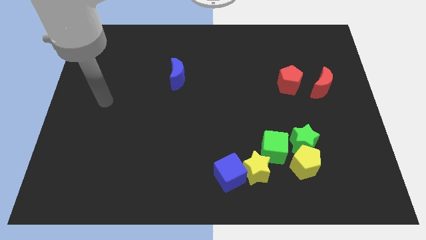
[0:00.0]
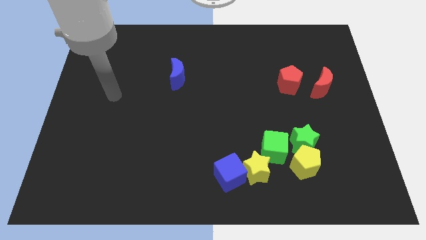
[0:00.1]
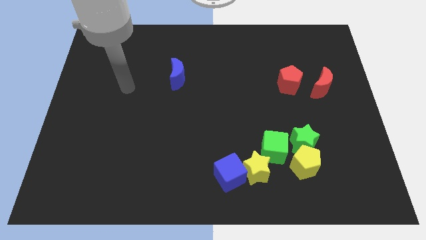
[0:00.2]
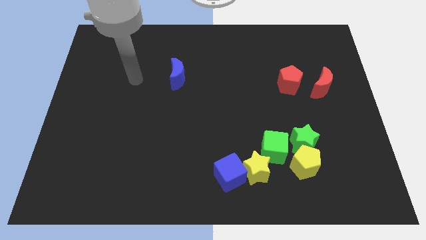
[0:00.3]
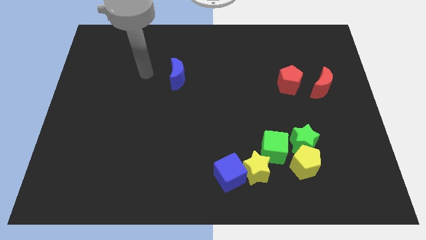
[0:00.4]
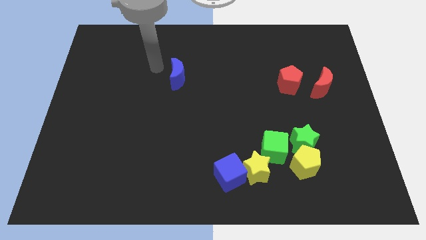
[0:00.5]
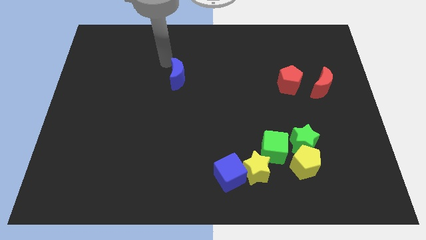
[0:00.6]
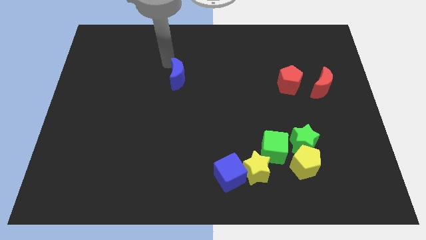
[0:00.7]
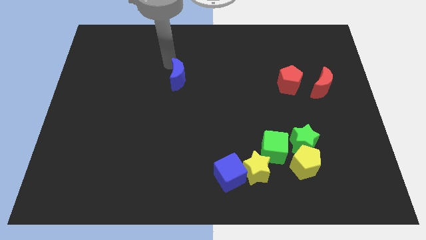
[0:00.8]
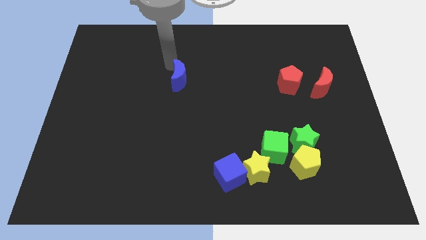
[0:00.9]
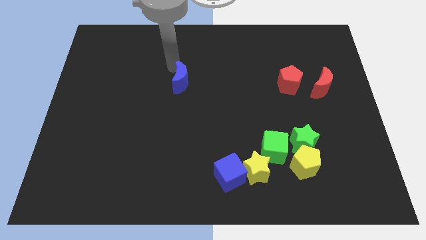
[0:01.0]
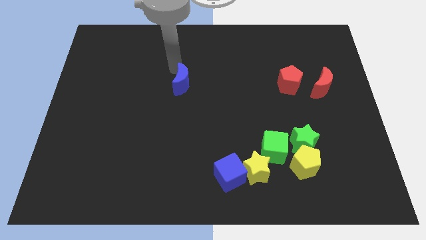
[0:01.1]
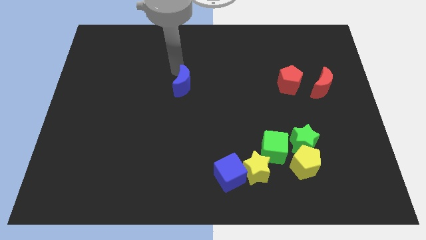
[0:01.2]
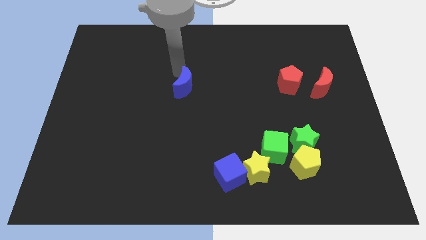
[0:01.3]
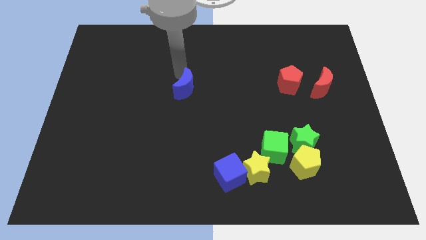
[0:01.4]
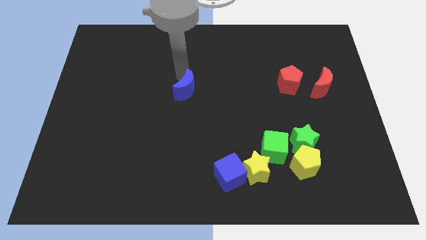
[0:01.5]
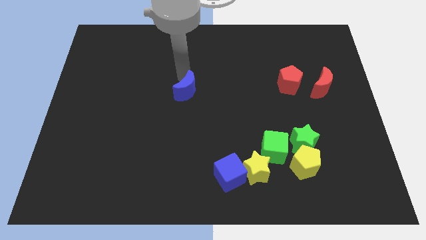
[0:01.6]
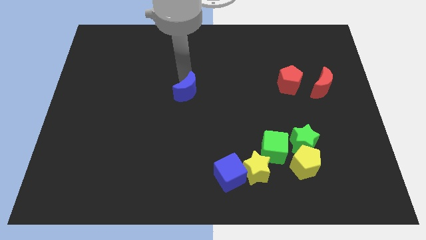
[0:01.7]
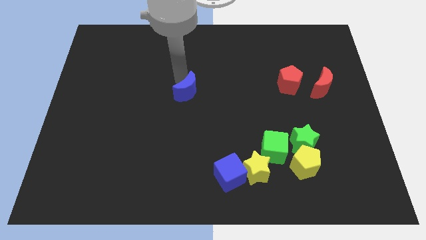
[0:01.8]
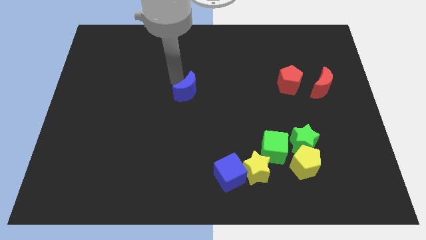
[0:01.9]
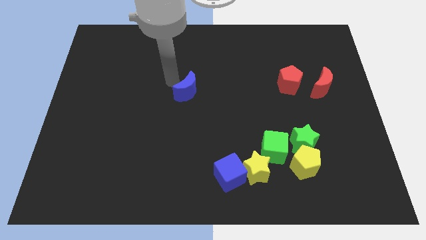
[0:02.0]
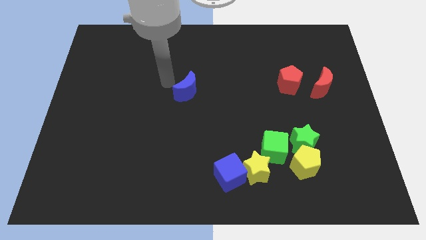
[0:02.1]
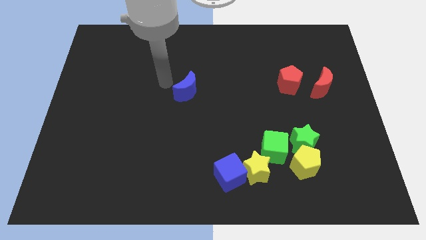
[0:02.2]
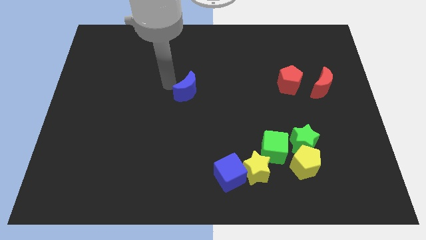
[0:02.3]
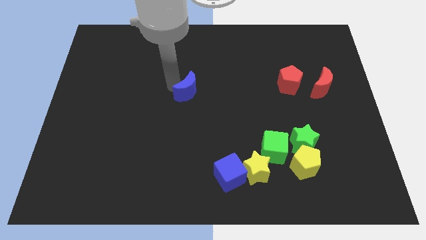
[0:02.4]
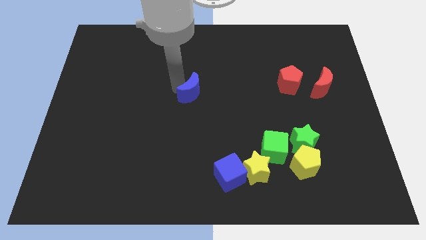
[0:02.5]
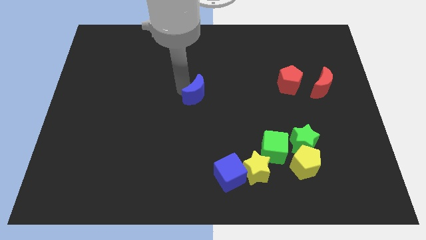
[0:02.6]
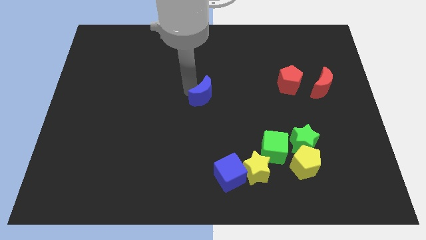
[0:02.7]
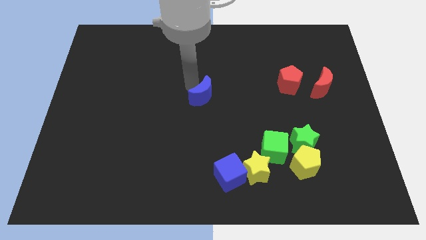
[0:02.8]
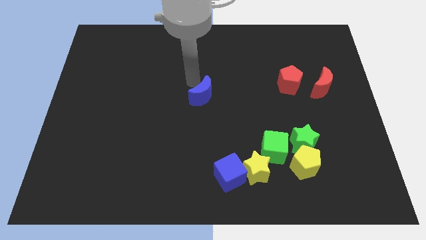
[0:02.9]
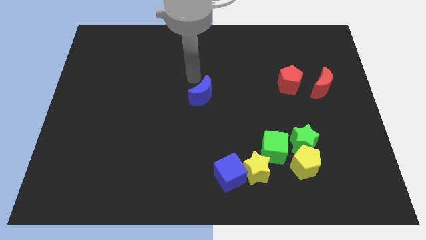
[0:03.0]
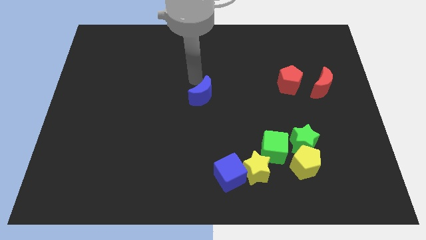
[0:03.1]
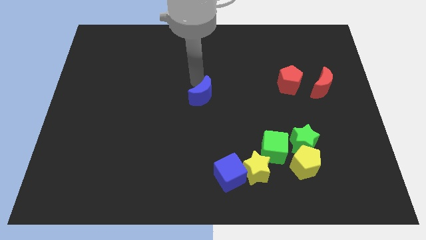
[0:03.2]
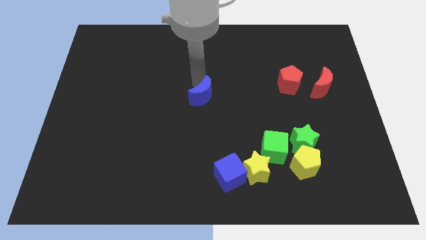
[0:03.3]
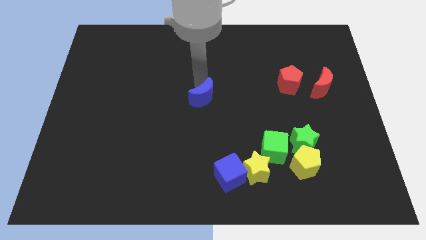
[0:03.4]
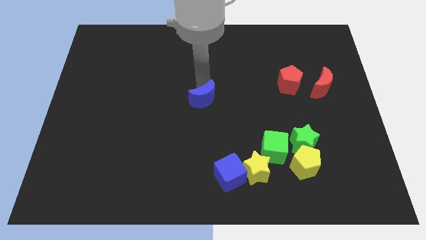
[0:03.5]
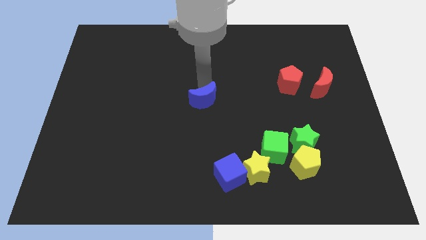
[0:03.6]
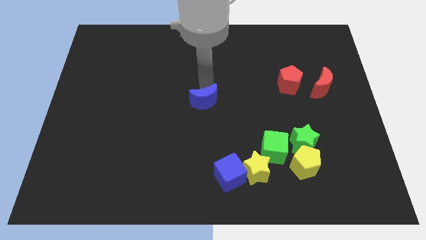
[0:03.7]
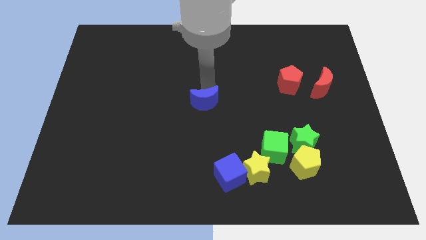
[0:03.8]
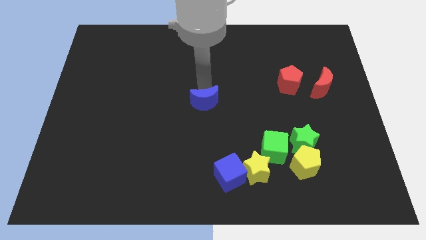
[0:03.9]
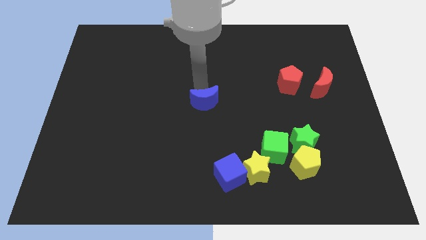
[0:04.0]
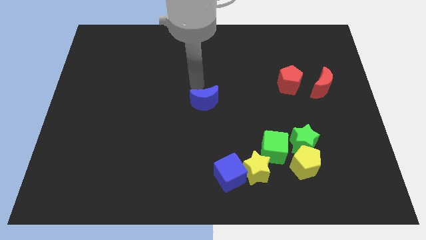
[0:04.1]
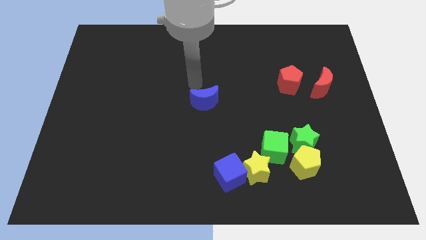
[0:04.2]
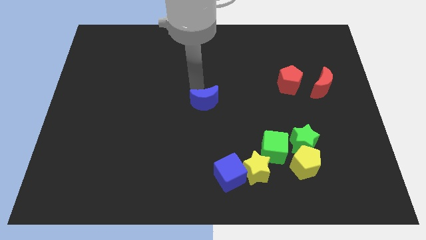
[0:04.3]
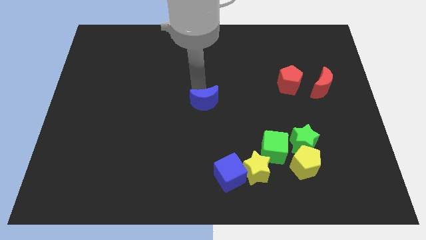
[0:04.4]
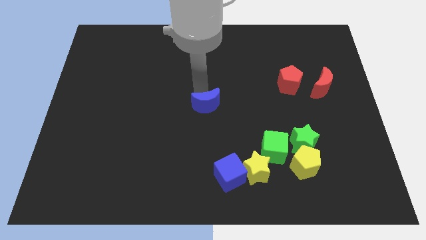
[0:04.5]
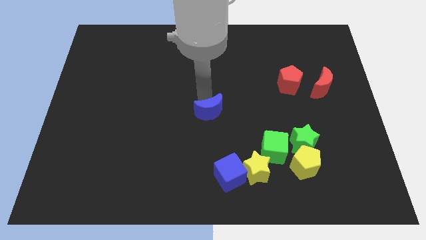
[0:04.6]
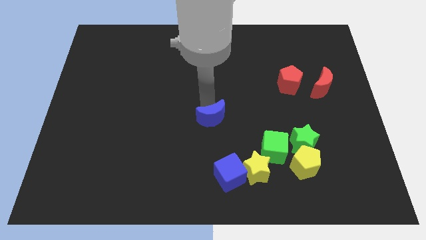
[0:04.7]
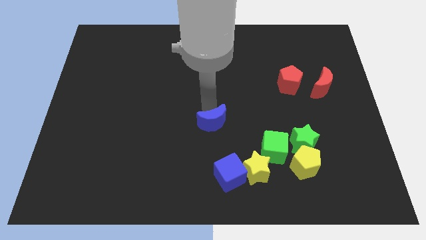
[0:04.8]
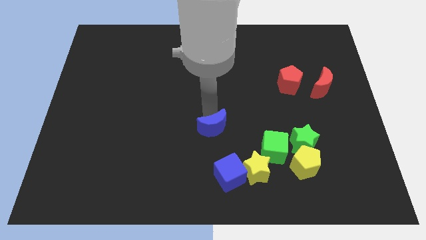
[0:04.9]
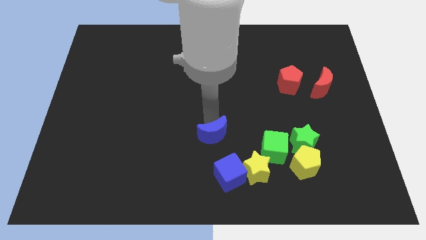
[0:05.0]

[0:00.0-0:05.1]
push the blue moon to the left of the green cube

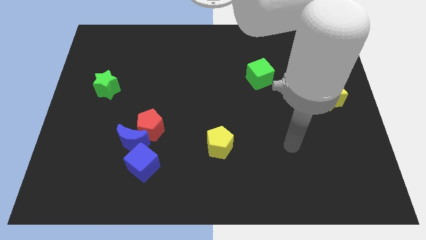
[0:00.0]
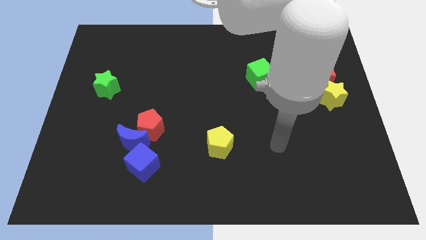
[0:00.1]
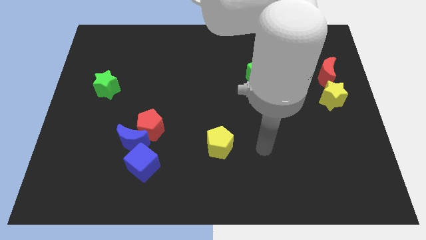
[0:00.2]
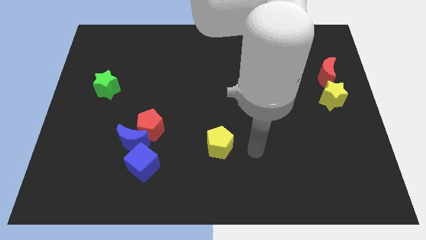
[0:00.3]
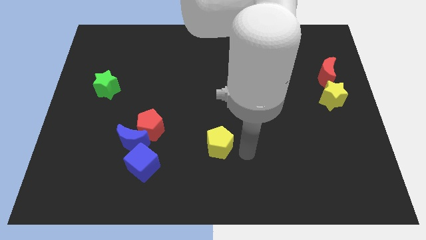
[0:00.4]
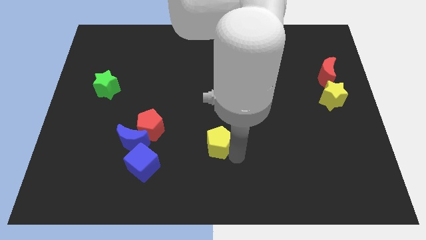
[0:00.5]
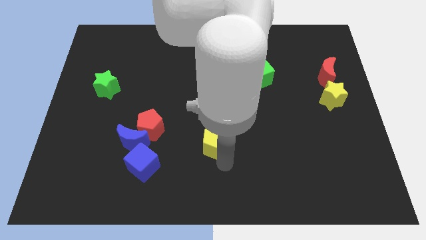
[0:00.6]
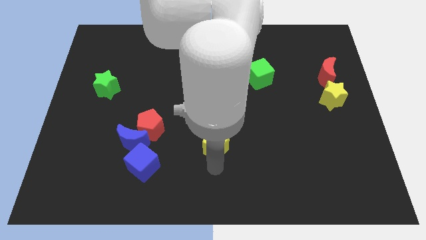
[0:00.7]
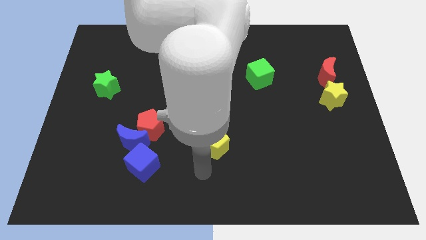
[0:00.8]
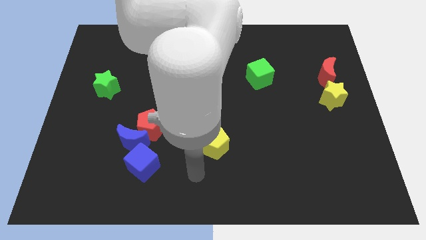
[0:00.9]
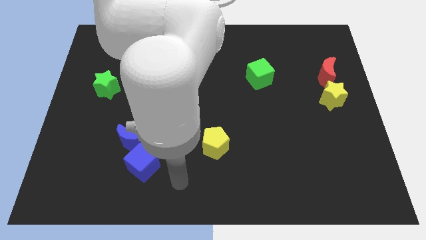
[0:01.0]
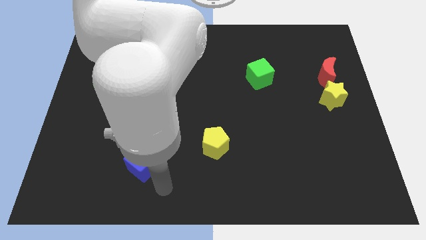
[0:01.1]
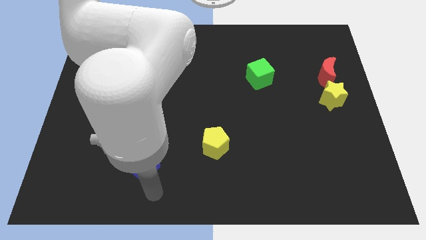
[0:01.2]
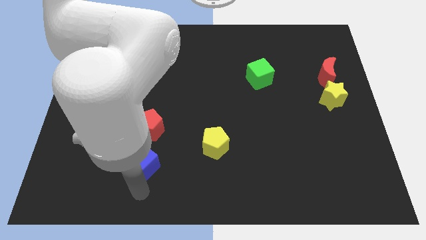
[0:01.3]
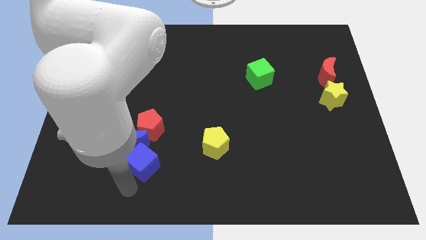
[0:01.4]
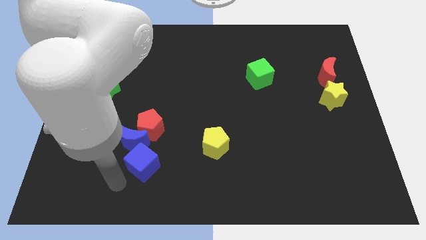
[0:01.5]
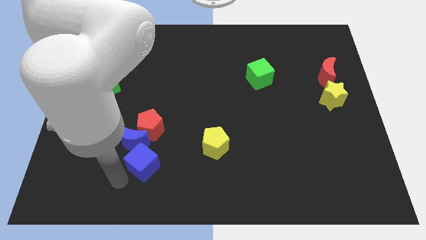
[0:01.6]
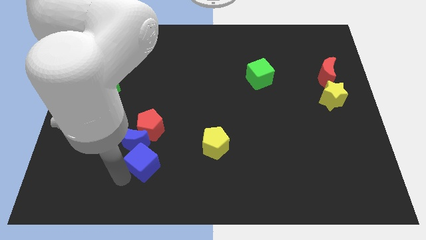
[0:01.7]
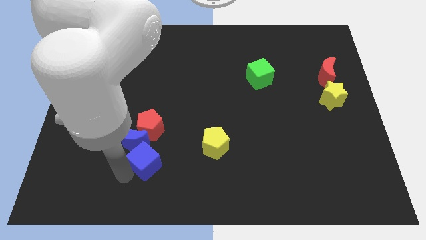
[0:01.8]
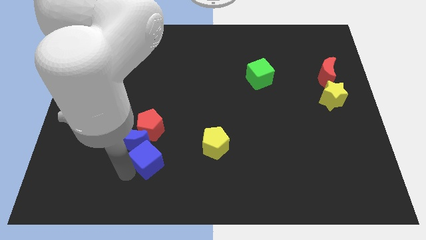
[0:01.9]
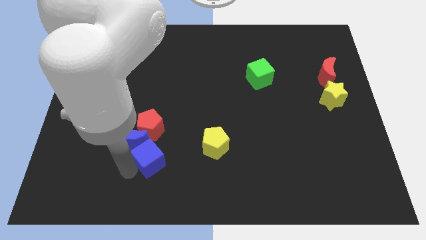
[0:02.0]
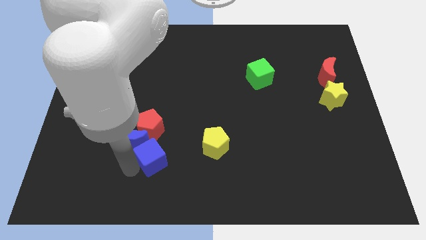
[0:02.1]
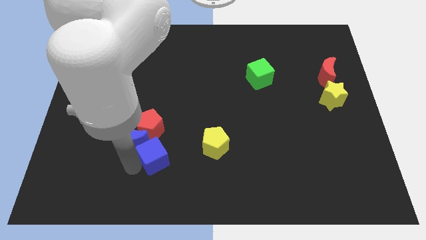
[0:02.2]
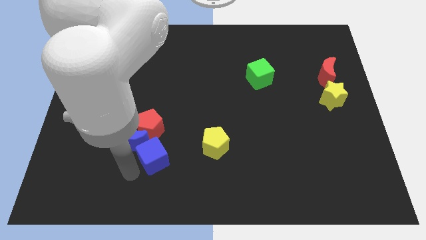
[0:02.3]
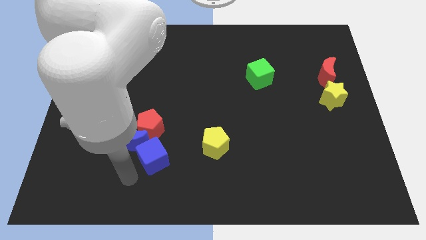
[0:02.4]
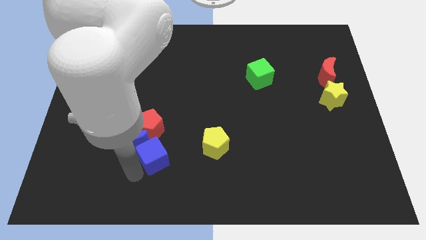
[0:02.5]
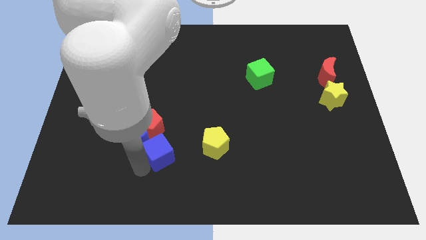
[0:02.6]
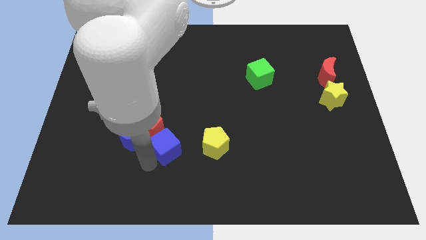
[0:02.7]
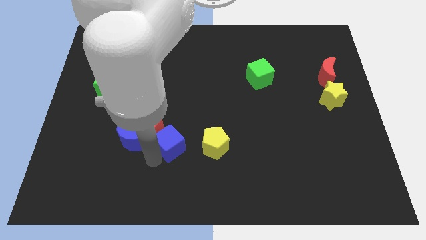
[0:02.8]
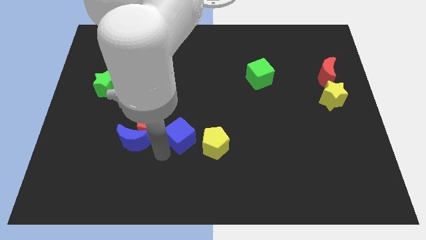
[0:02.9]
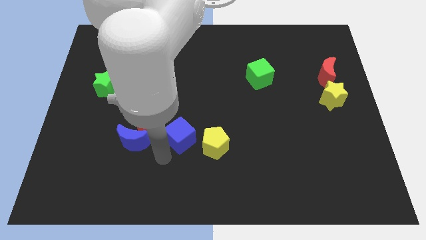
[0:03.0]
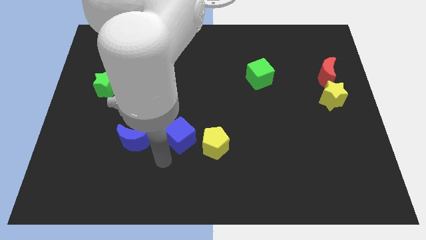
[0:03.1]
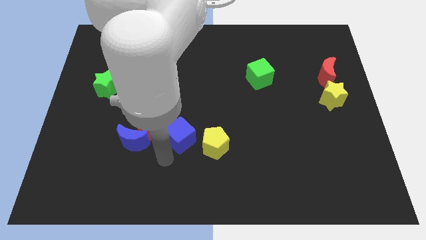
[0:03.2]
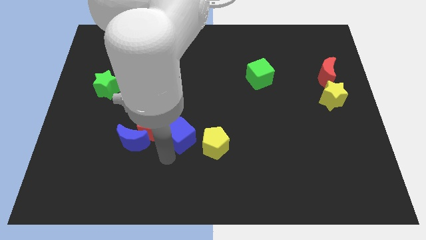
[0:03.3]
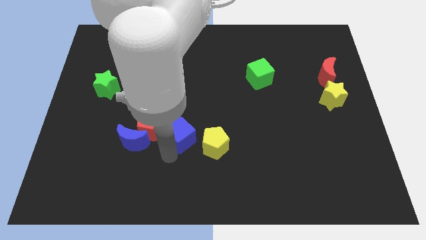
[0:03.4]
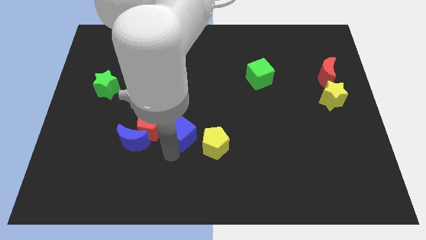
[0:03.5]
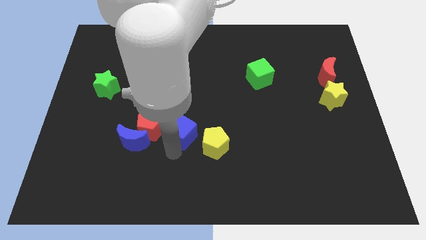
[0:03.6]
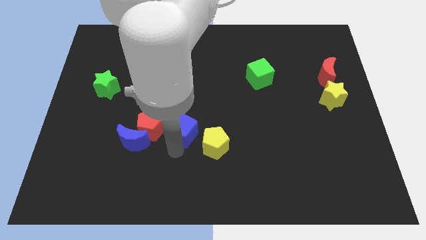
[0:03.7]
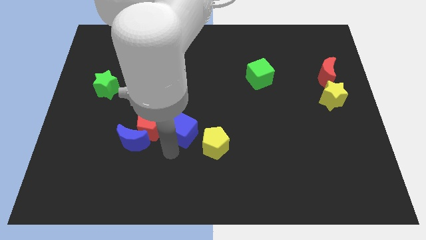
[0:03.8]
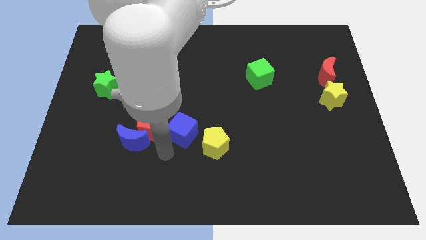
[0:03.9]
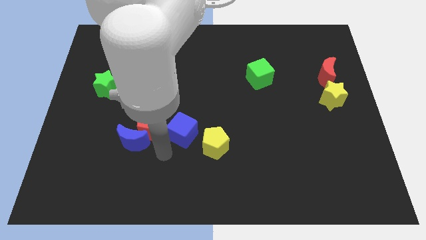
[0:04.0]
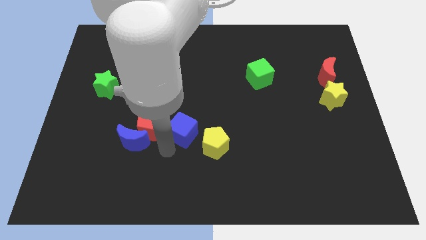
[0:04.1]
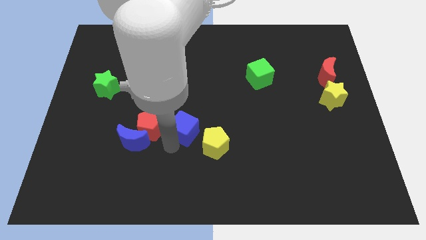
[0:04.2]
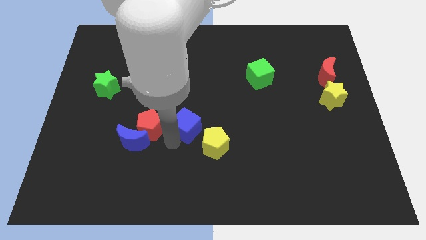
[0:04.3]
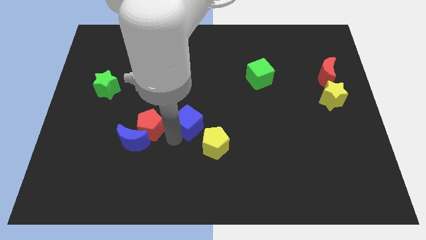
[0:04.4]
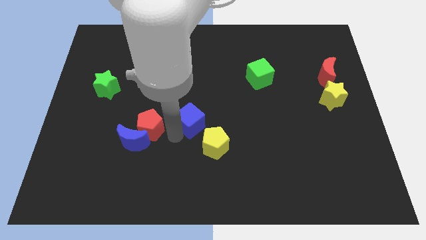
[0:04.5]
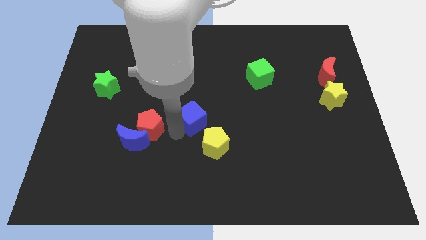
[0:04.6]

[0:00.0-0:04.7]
put the blue cube above the yellow pentagon
